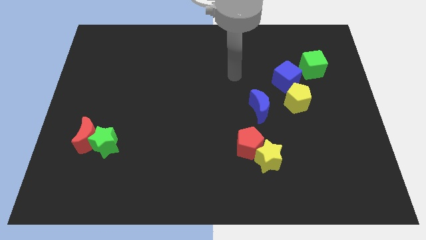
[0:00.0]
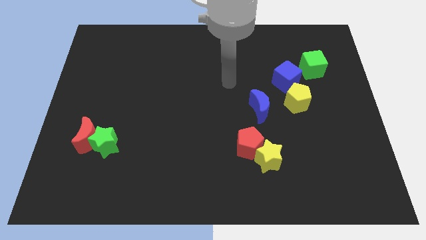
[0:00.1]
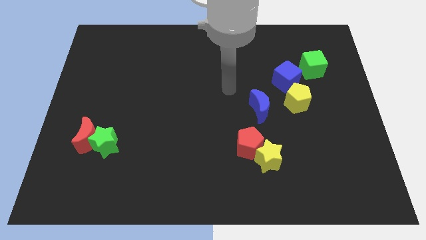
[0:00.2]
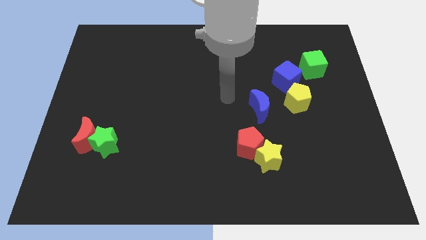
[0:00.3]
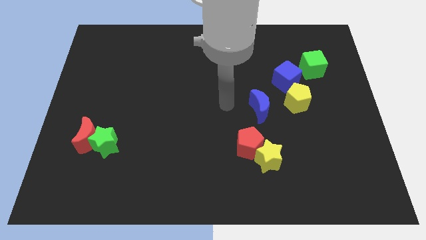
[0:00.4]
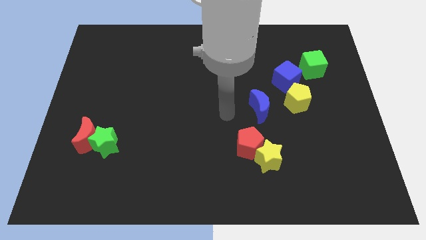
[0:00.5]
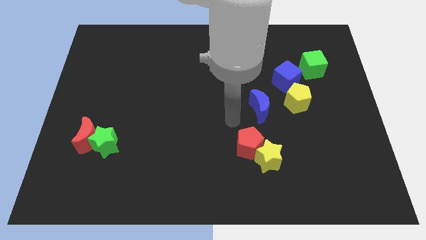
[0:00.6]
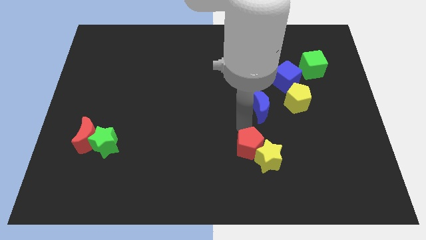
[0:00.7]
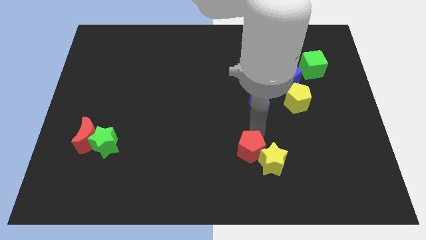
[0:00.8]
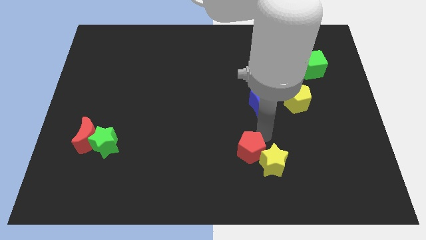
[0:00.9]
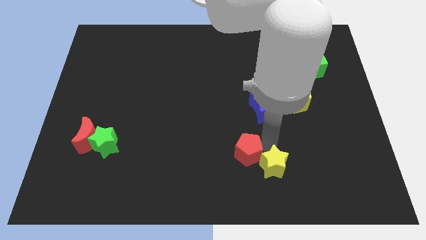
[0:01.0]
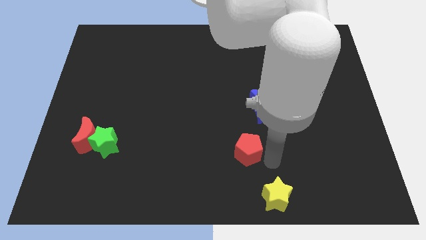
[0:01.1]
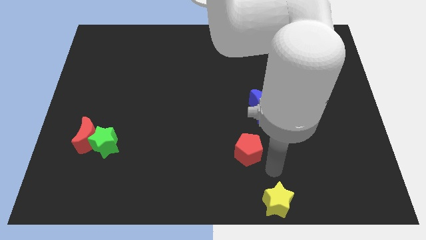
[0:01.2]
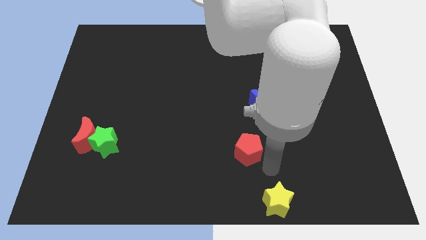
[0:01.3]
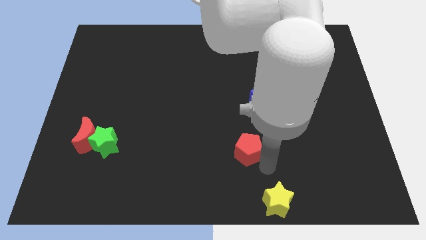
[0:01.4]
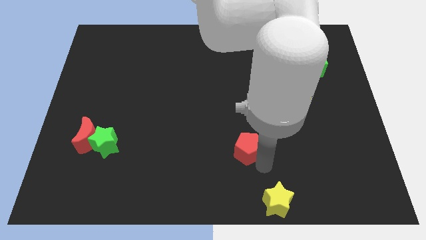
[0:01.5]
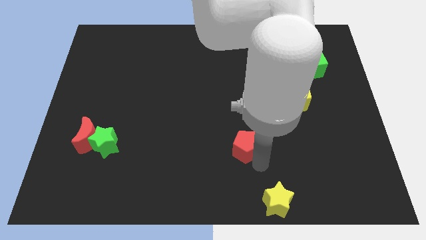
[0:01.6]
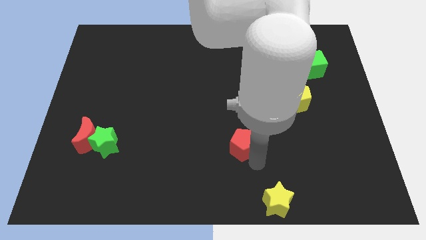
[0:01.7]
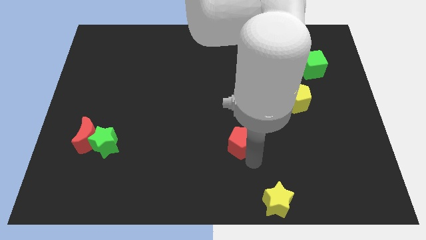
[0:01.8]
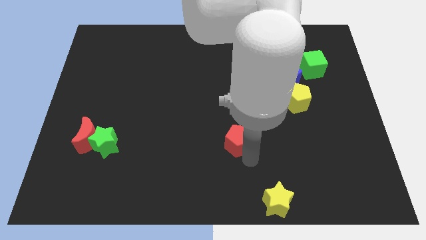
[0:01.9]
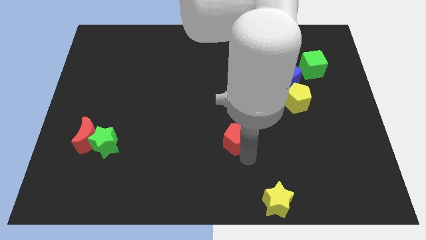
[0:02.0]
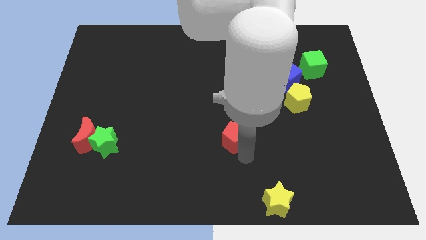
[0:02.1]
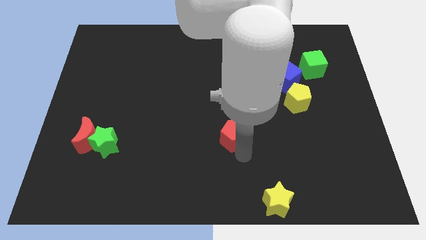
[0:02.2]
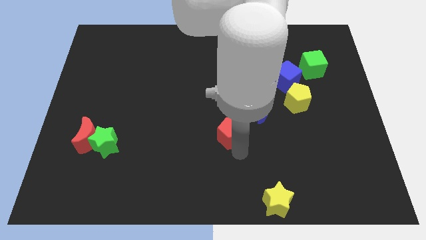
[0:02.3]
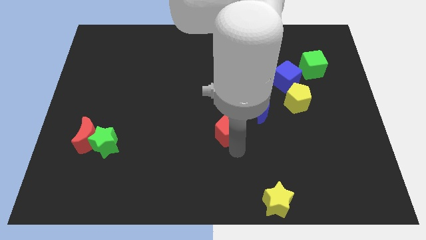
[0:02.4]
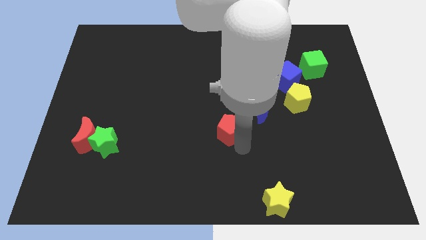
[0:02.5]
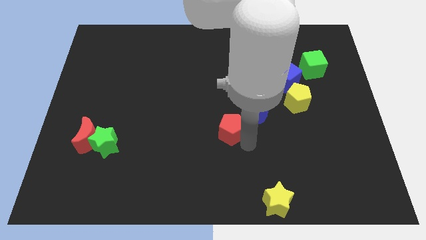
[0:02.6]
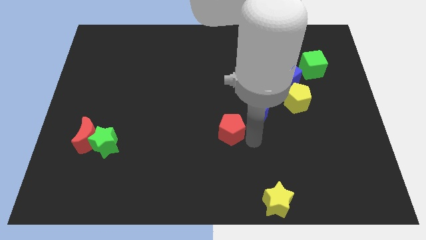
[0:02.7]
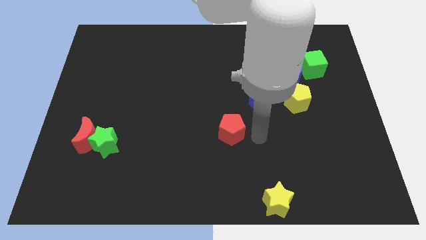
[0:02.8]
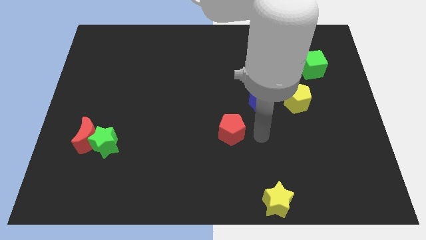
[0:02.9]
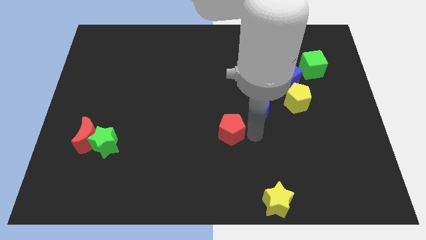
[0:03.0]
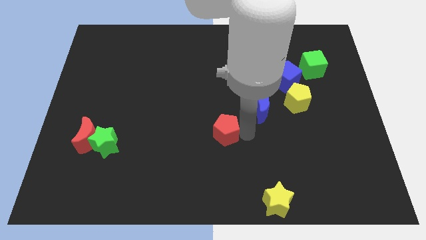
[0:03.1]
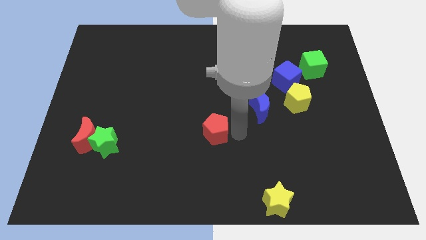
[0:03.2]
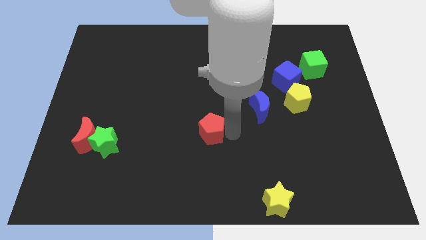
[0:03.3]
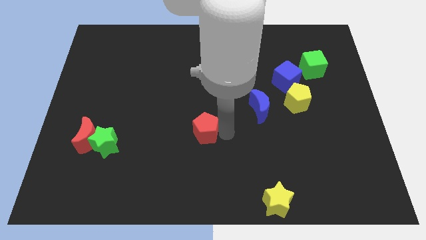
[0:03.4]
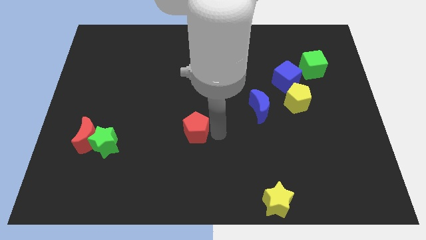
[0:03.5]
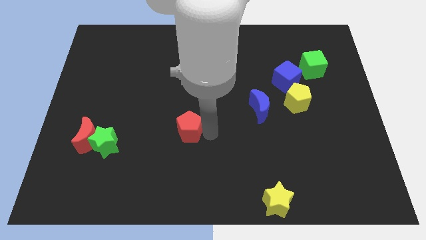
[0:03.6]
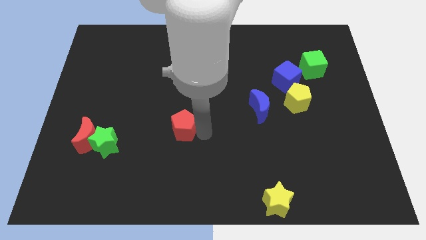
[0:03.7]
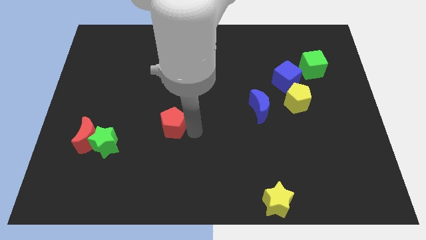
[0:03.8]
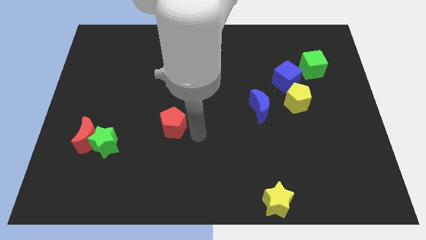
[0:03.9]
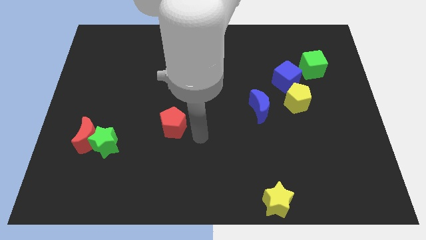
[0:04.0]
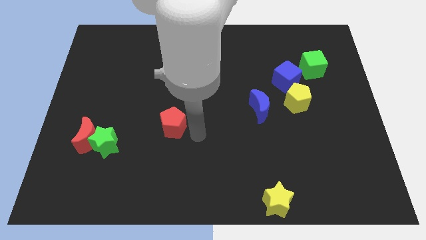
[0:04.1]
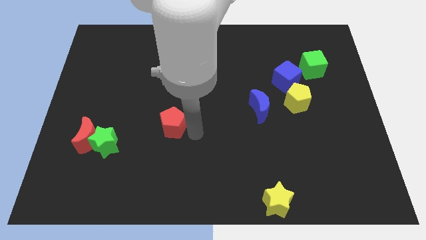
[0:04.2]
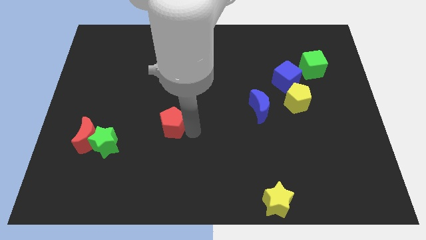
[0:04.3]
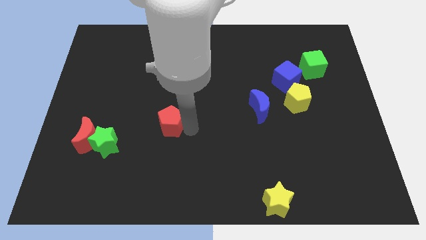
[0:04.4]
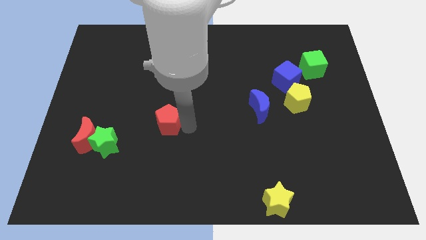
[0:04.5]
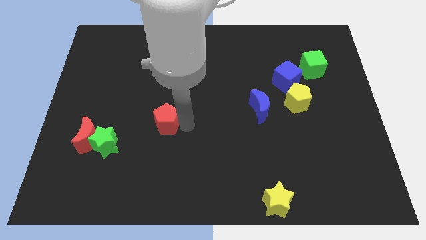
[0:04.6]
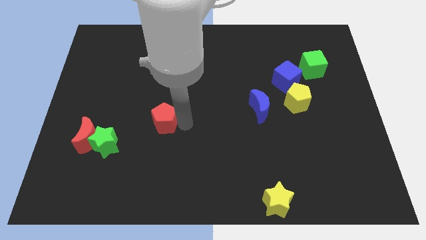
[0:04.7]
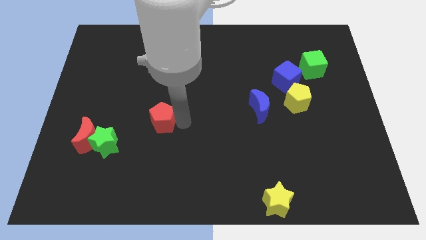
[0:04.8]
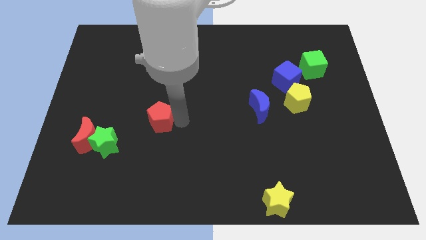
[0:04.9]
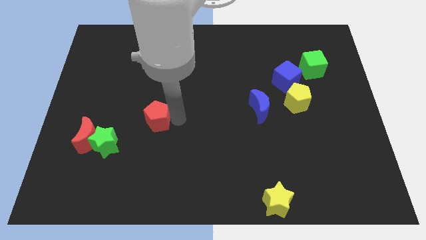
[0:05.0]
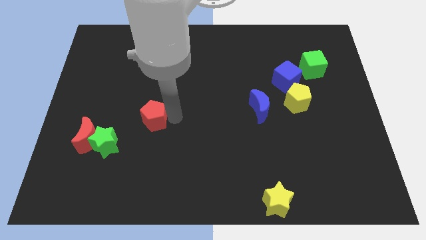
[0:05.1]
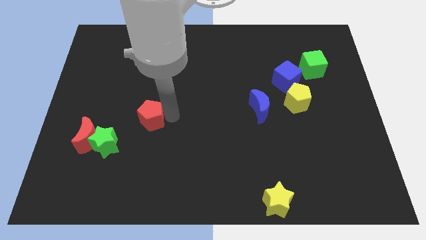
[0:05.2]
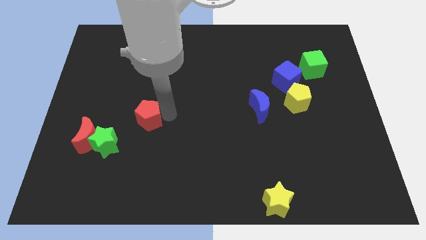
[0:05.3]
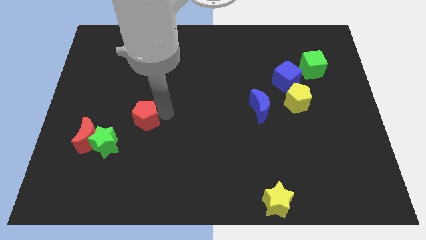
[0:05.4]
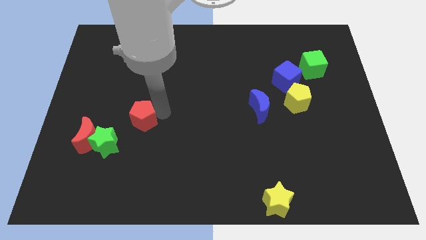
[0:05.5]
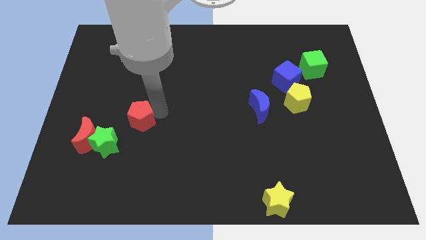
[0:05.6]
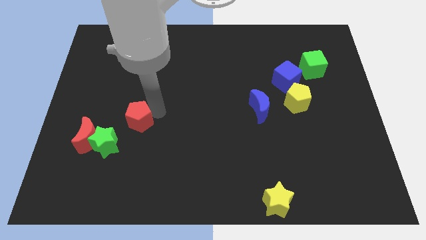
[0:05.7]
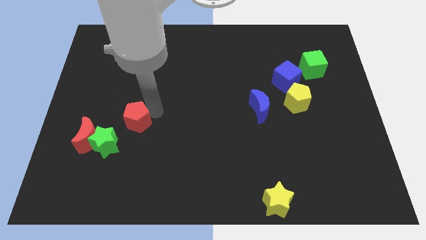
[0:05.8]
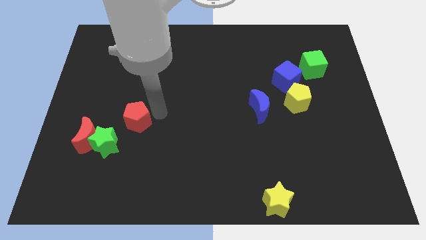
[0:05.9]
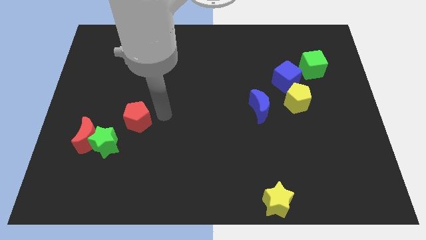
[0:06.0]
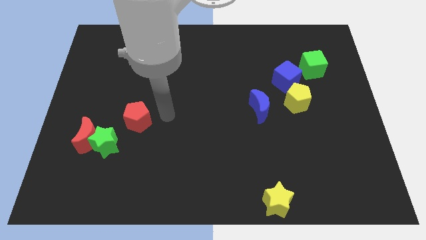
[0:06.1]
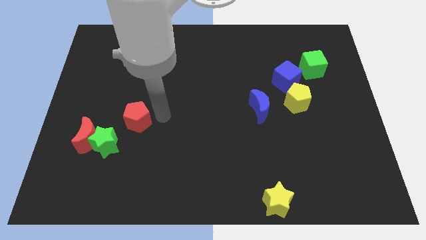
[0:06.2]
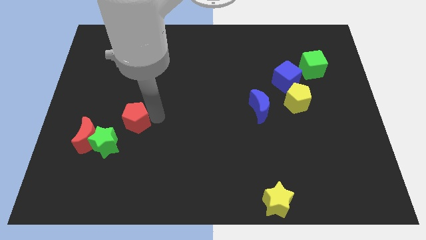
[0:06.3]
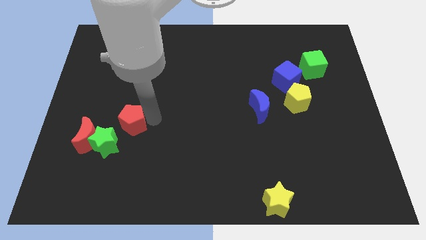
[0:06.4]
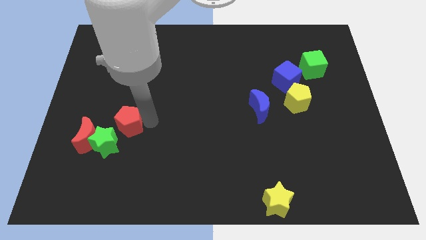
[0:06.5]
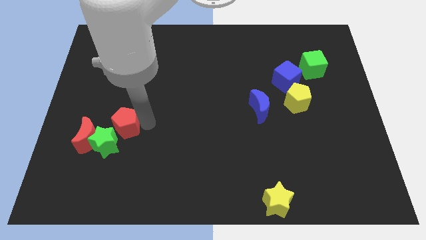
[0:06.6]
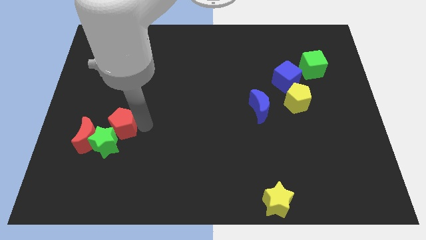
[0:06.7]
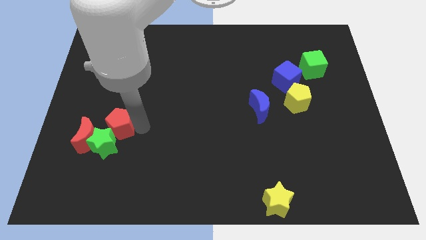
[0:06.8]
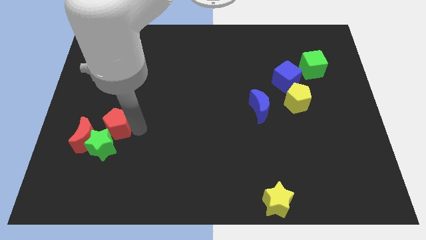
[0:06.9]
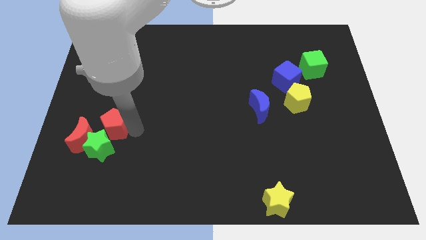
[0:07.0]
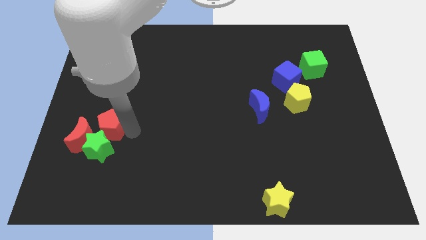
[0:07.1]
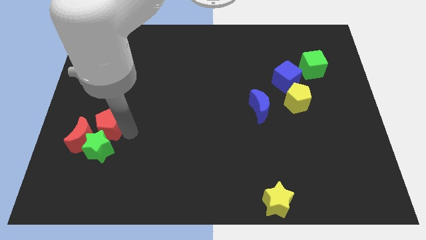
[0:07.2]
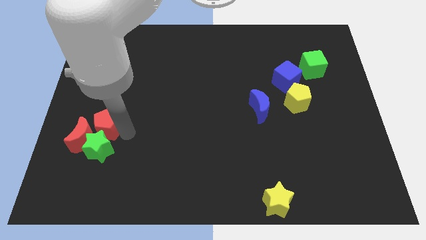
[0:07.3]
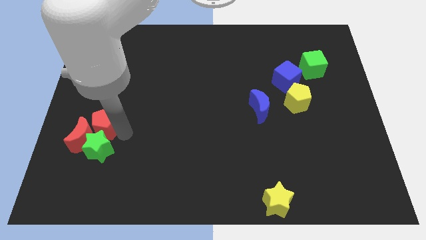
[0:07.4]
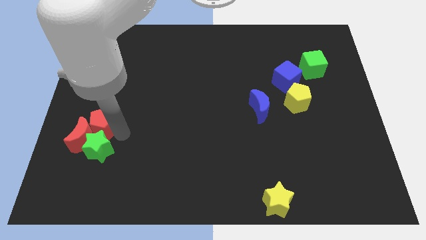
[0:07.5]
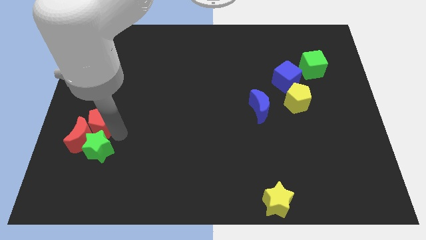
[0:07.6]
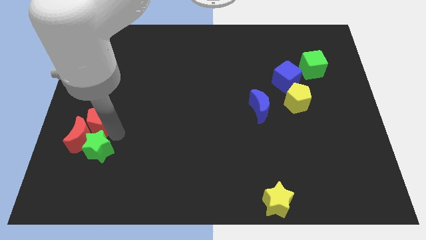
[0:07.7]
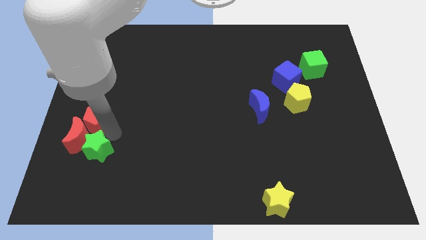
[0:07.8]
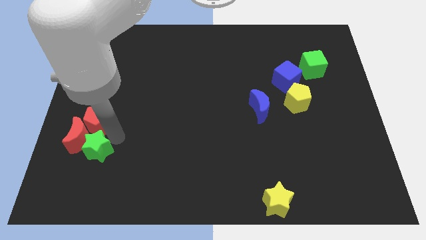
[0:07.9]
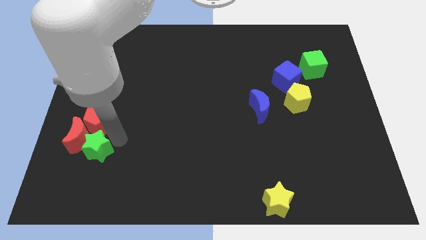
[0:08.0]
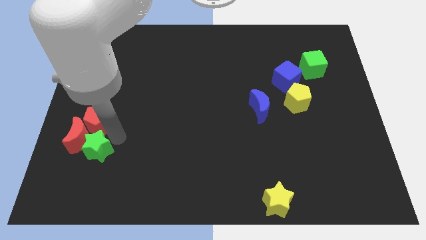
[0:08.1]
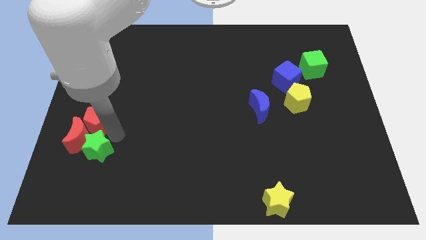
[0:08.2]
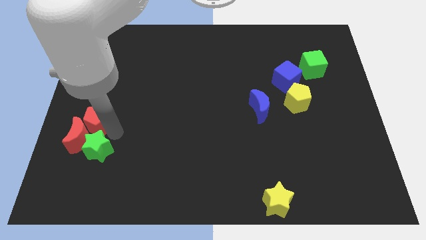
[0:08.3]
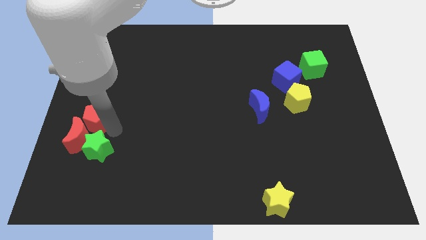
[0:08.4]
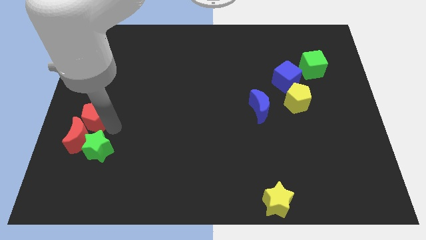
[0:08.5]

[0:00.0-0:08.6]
move the red pentagon to the left side
